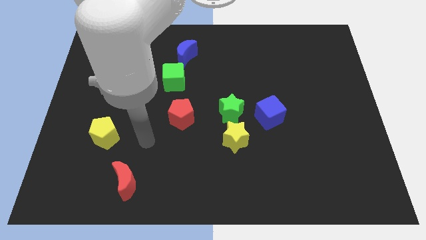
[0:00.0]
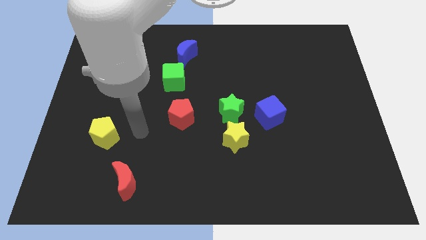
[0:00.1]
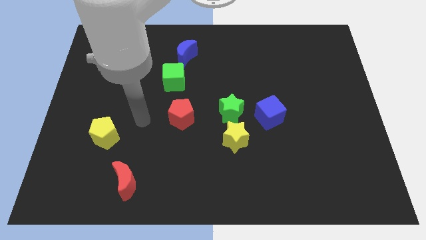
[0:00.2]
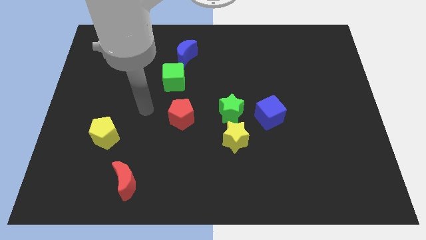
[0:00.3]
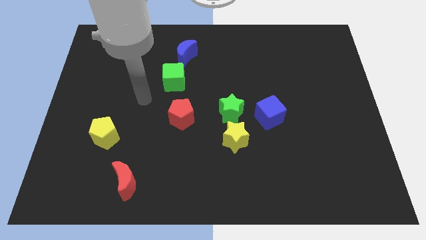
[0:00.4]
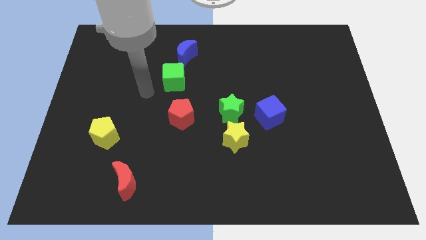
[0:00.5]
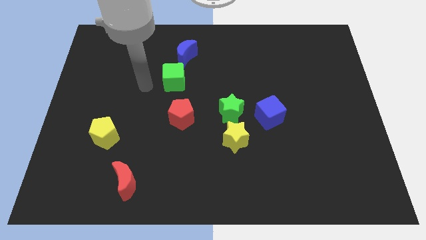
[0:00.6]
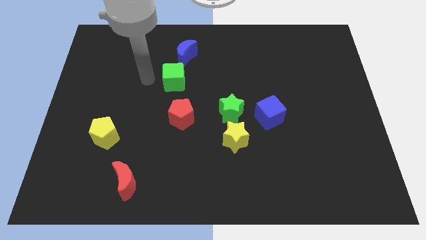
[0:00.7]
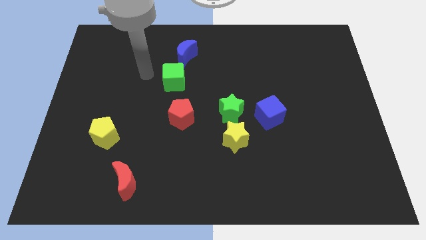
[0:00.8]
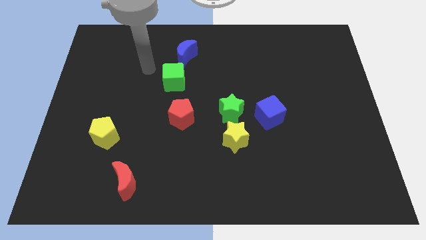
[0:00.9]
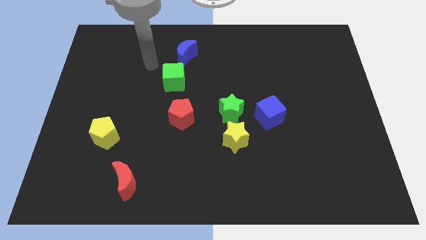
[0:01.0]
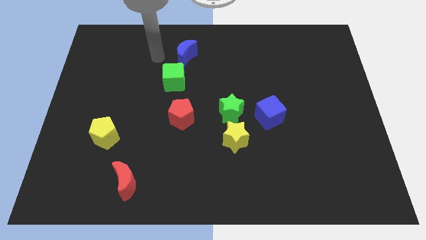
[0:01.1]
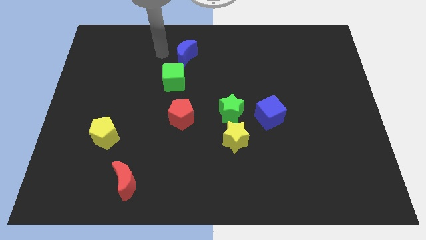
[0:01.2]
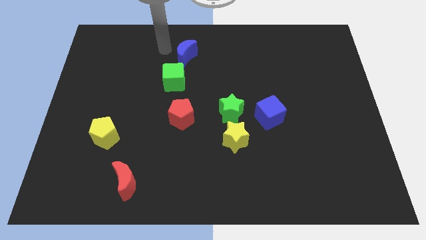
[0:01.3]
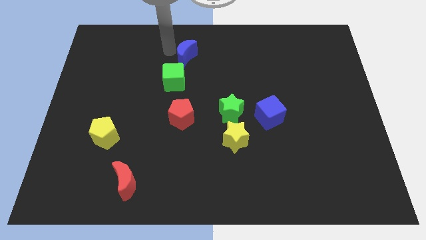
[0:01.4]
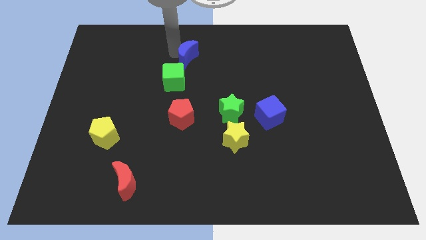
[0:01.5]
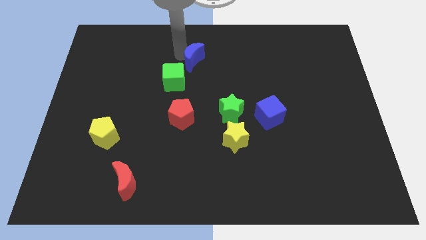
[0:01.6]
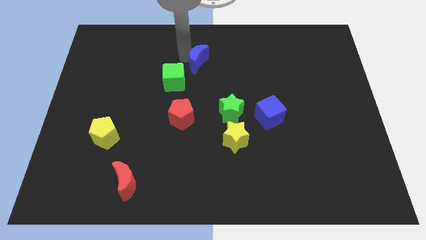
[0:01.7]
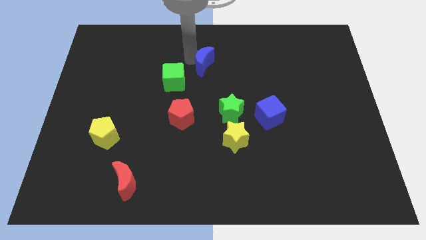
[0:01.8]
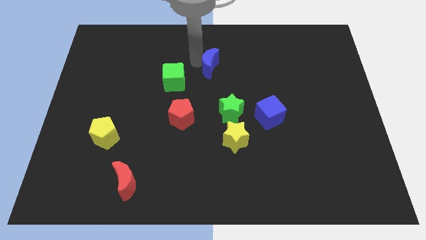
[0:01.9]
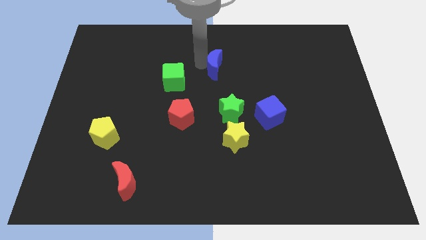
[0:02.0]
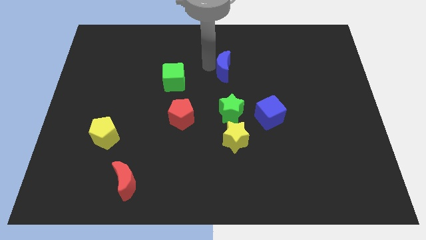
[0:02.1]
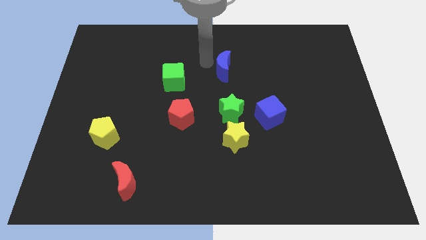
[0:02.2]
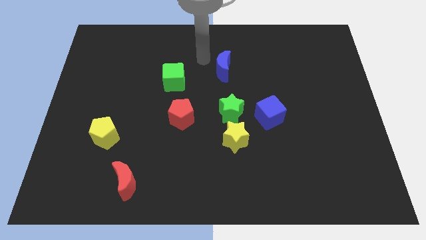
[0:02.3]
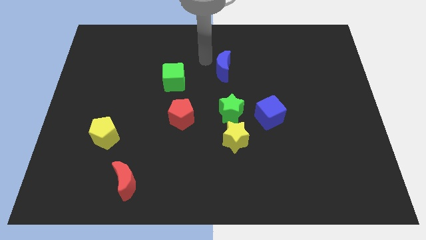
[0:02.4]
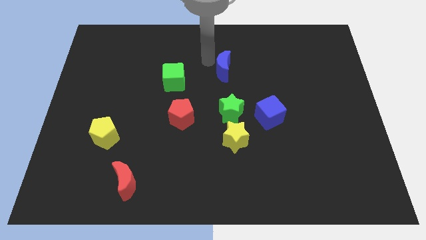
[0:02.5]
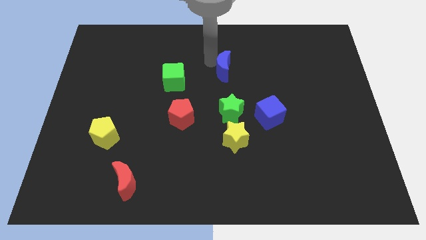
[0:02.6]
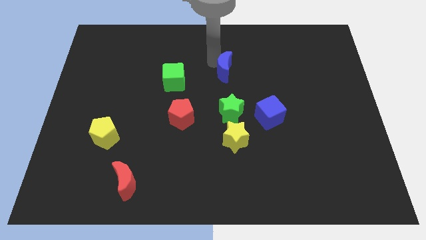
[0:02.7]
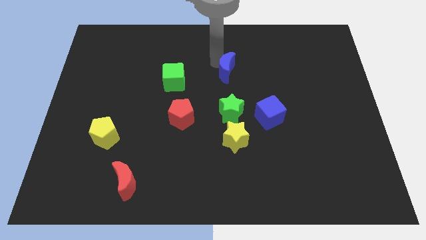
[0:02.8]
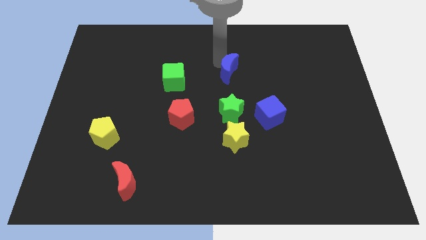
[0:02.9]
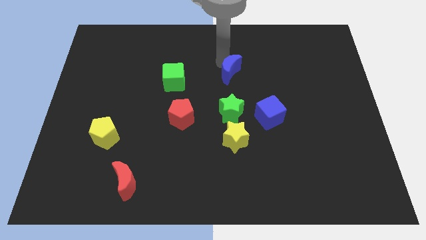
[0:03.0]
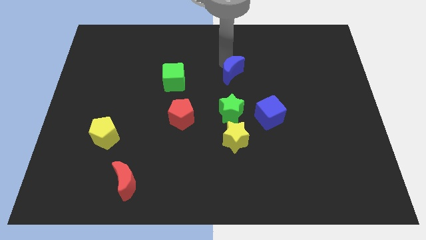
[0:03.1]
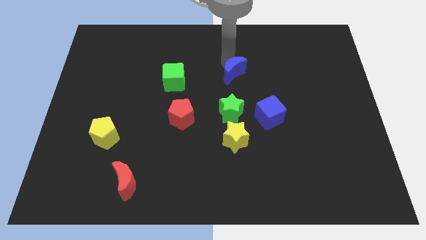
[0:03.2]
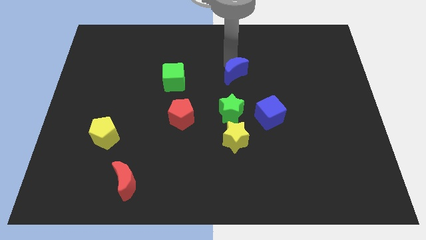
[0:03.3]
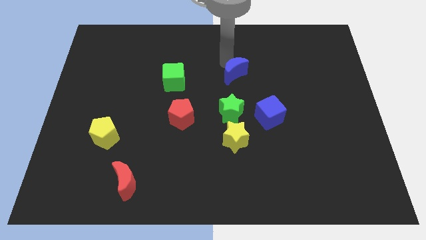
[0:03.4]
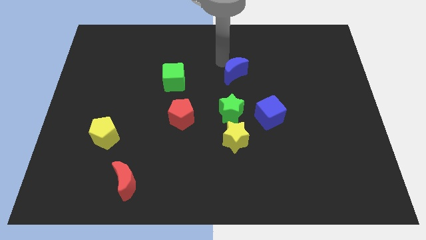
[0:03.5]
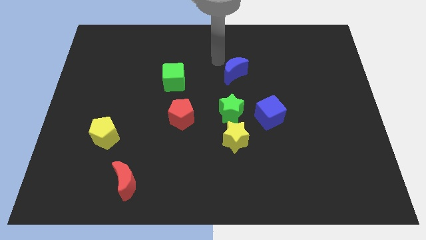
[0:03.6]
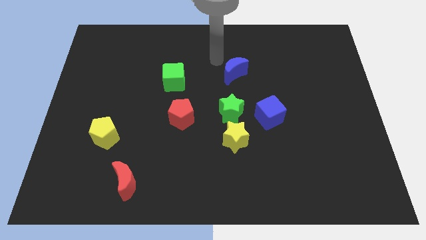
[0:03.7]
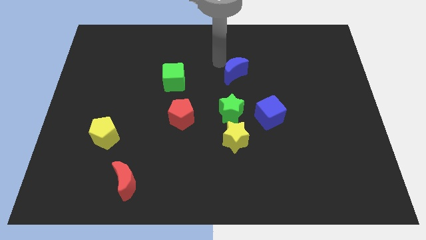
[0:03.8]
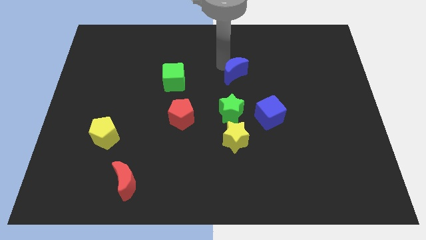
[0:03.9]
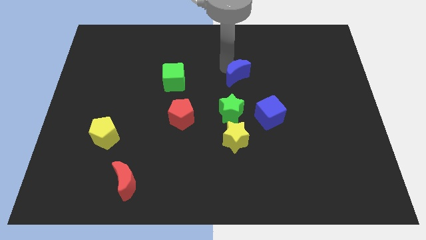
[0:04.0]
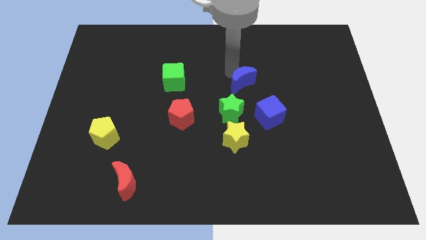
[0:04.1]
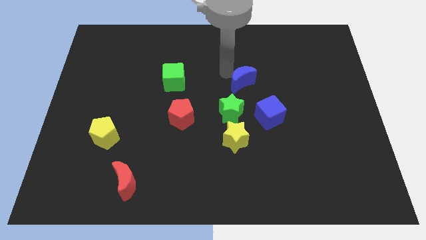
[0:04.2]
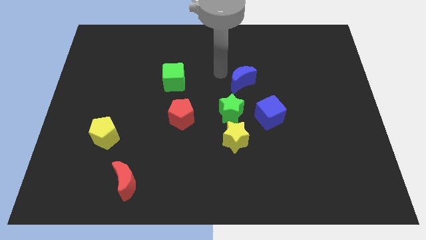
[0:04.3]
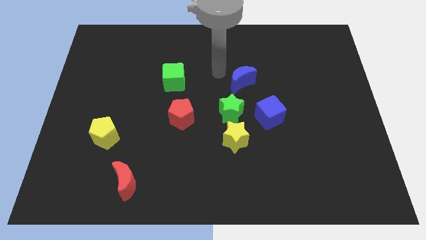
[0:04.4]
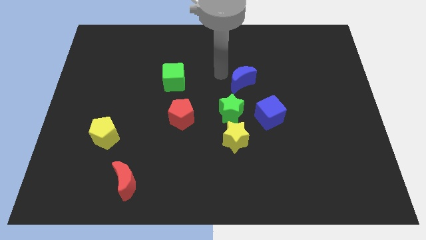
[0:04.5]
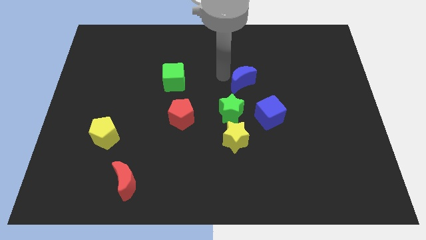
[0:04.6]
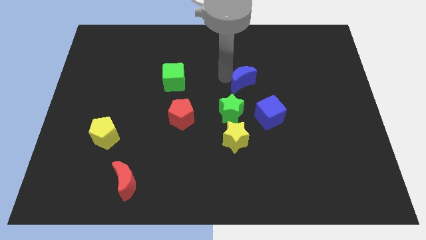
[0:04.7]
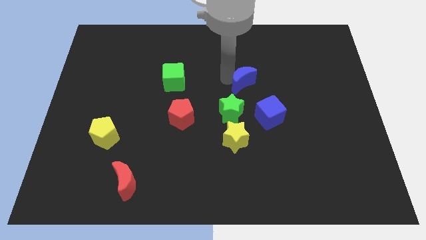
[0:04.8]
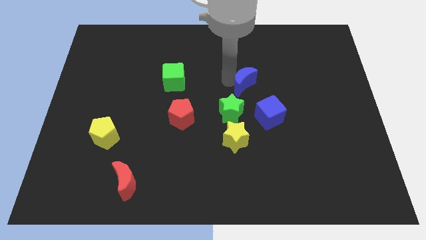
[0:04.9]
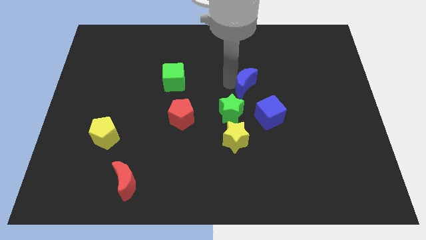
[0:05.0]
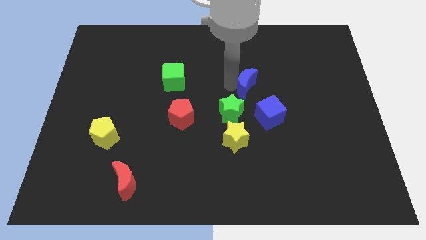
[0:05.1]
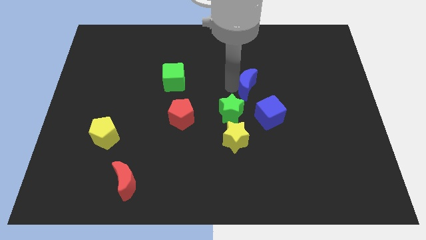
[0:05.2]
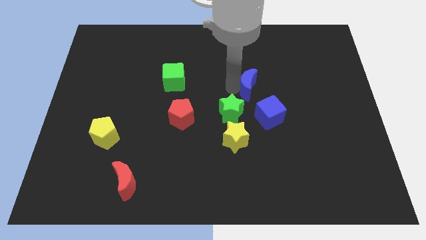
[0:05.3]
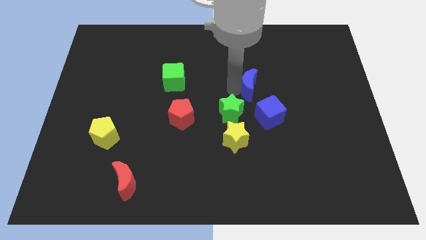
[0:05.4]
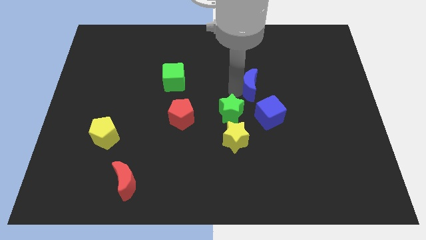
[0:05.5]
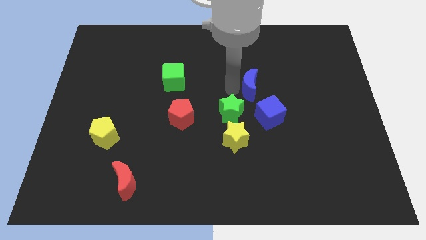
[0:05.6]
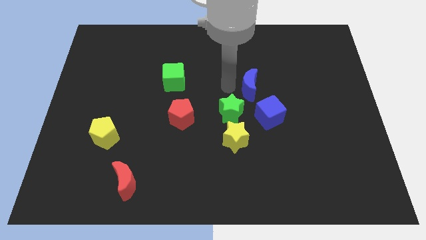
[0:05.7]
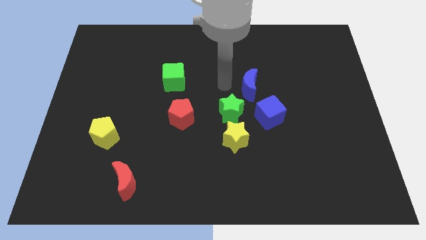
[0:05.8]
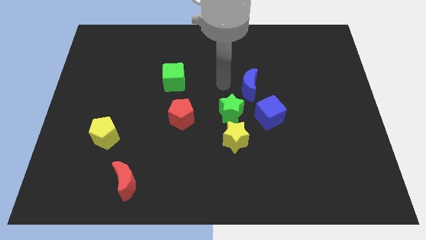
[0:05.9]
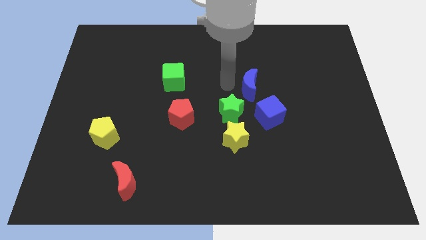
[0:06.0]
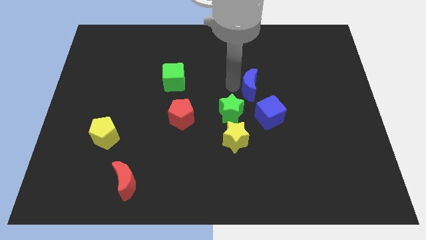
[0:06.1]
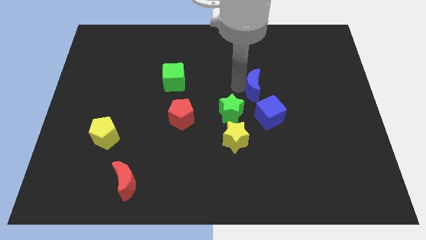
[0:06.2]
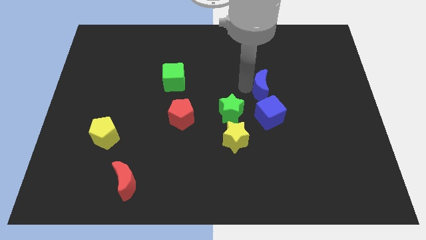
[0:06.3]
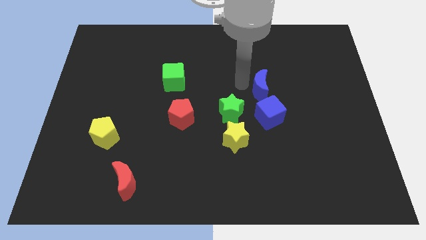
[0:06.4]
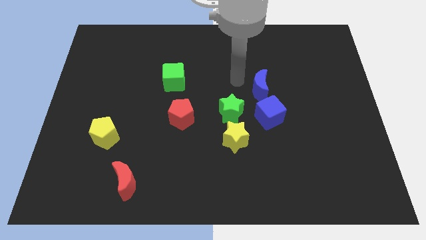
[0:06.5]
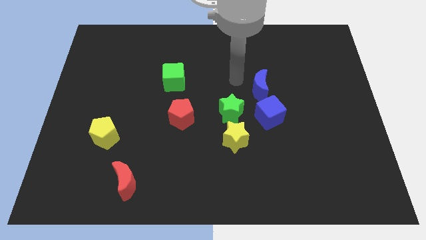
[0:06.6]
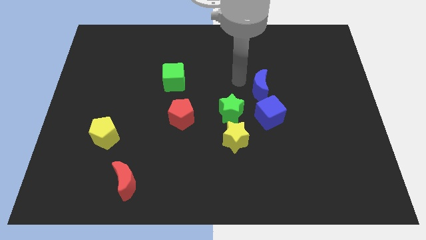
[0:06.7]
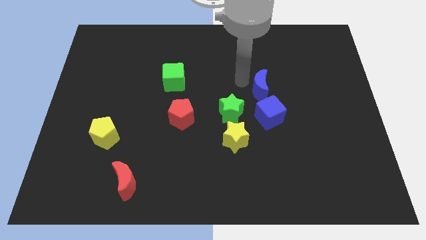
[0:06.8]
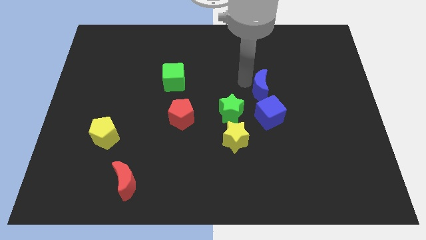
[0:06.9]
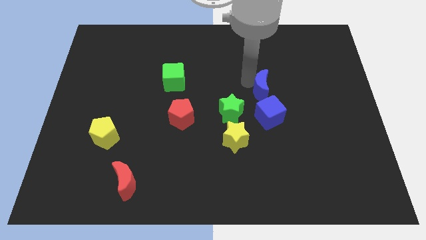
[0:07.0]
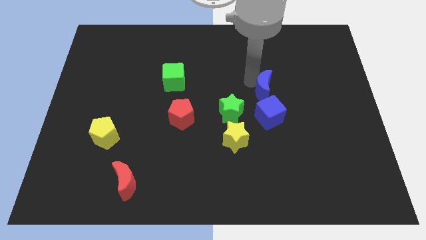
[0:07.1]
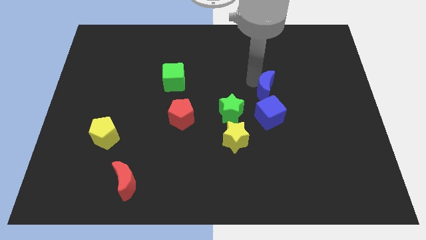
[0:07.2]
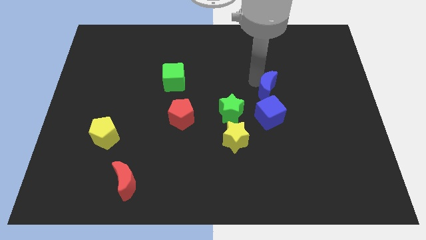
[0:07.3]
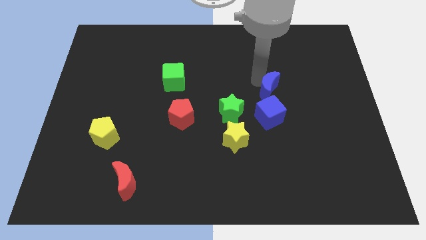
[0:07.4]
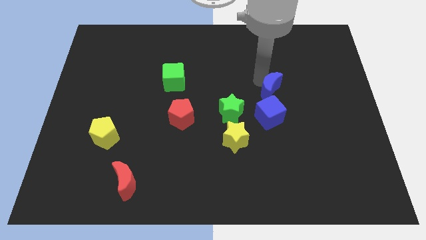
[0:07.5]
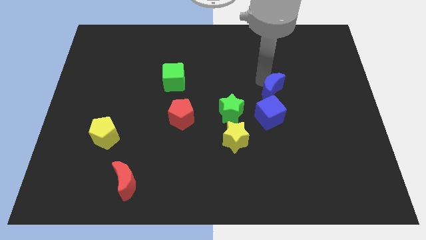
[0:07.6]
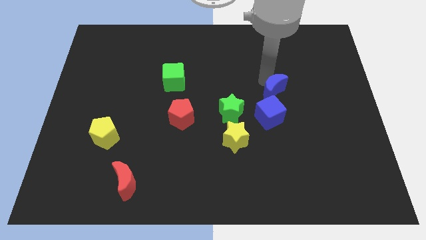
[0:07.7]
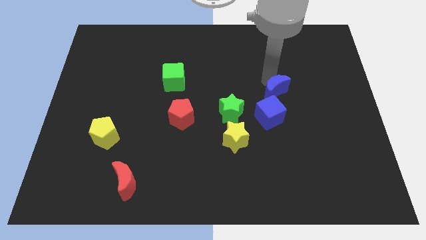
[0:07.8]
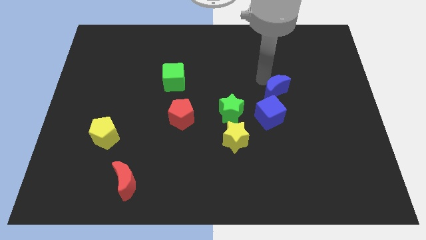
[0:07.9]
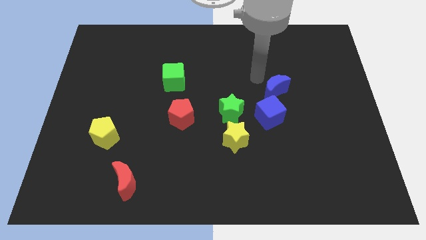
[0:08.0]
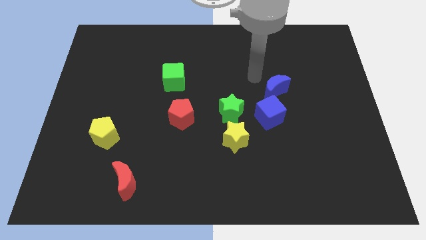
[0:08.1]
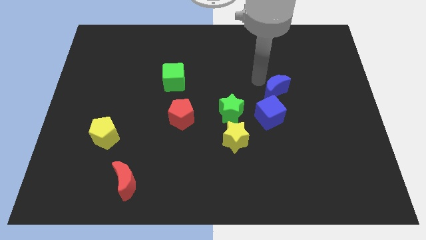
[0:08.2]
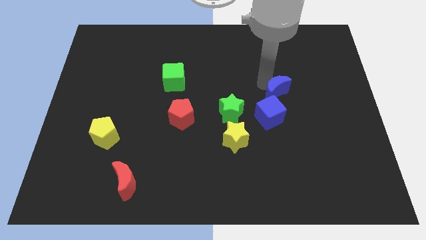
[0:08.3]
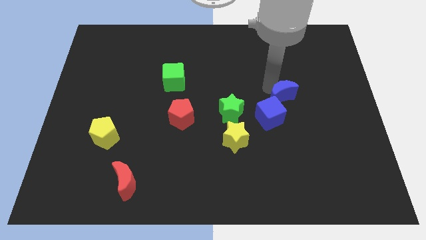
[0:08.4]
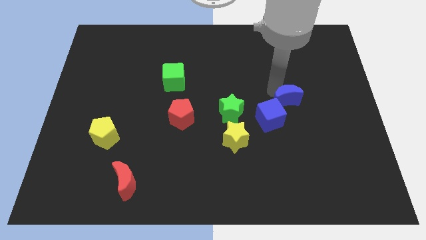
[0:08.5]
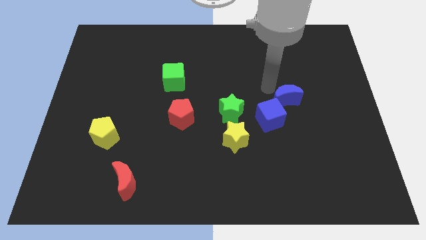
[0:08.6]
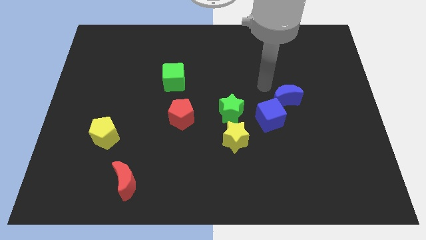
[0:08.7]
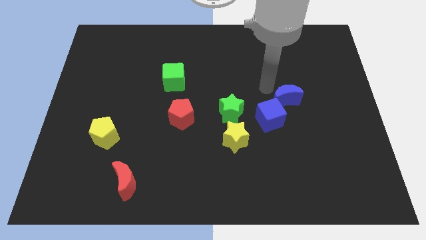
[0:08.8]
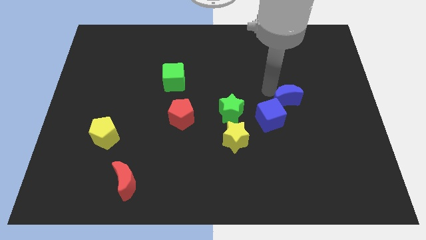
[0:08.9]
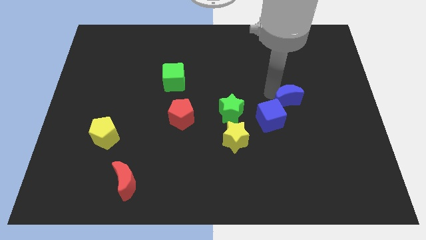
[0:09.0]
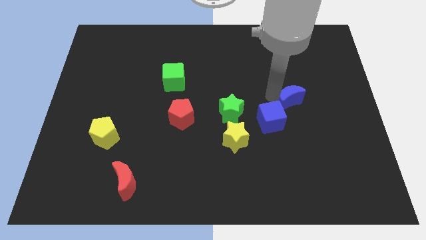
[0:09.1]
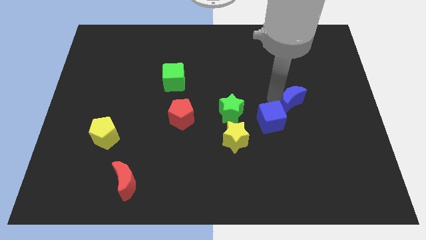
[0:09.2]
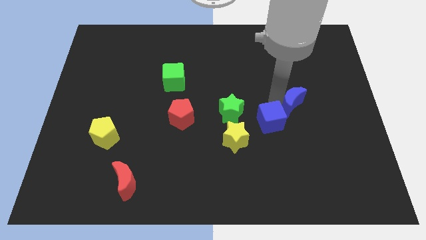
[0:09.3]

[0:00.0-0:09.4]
slide the blue moon just right of the blue cube
